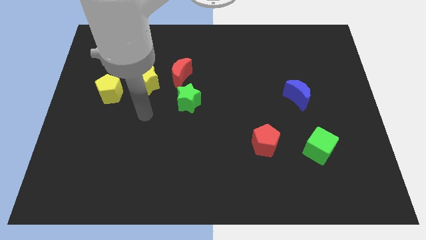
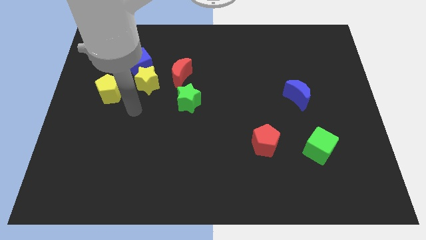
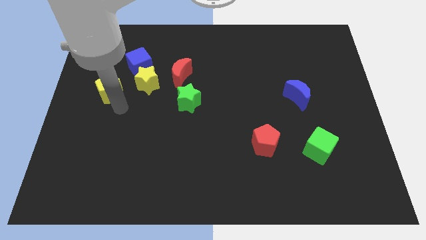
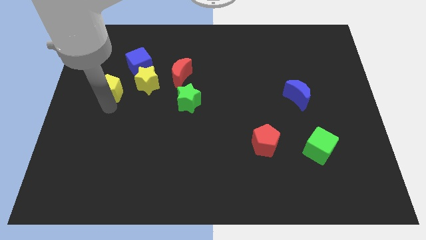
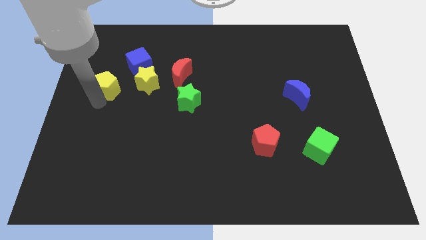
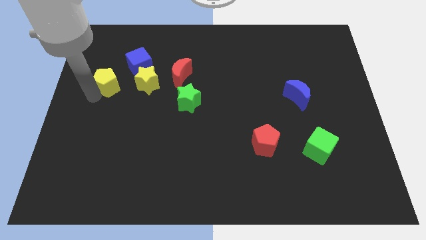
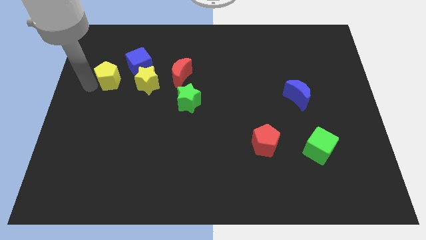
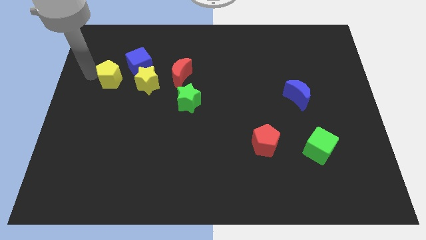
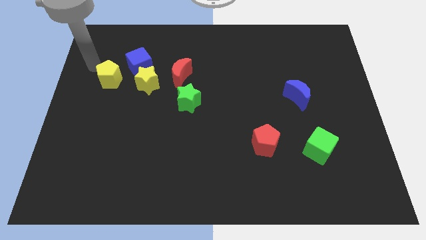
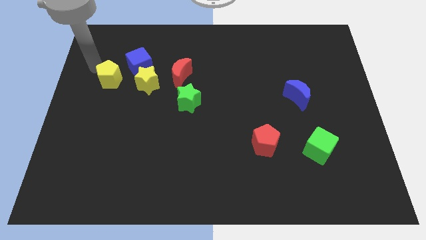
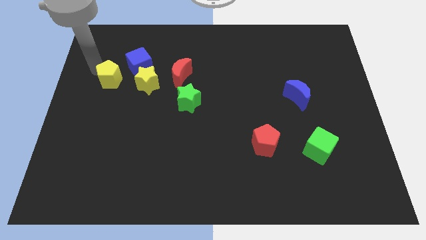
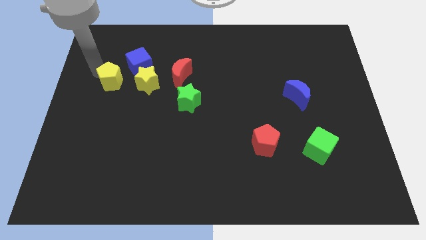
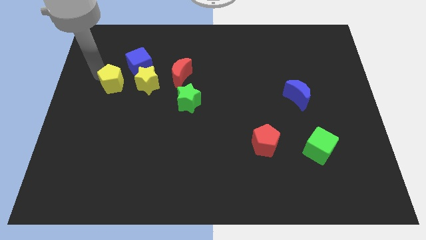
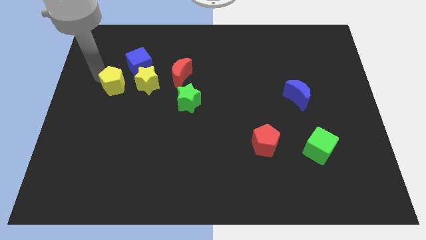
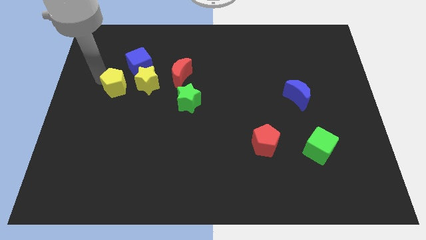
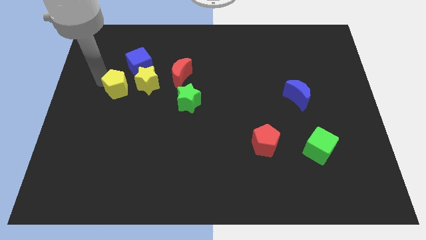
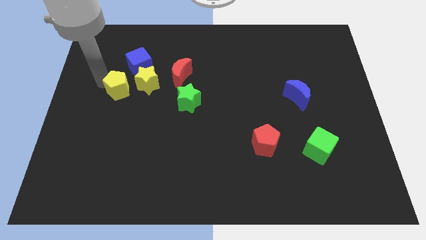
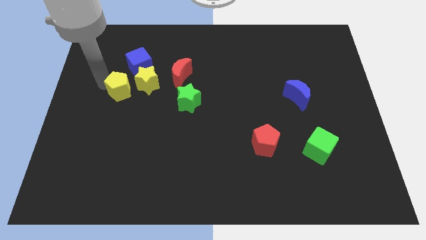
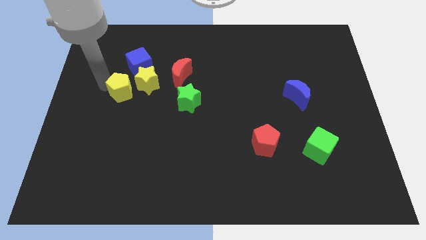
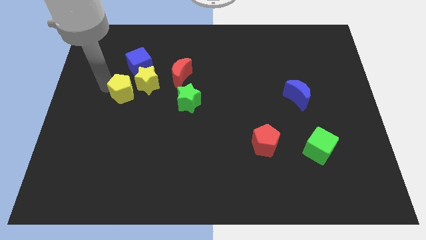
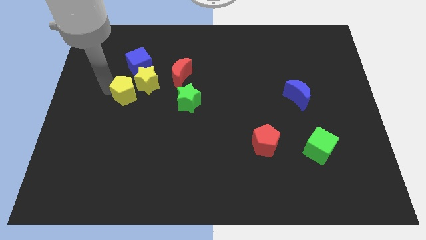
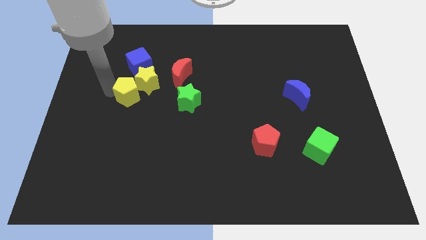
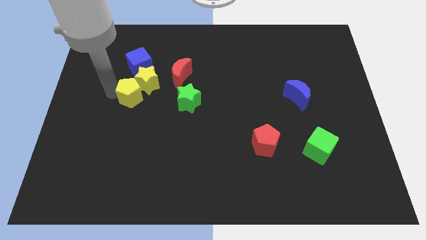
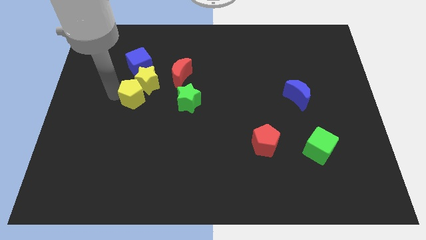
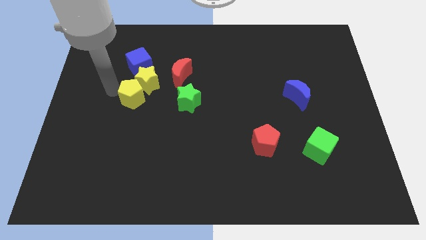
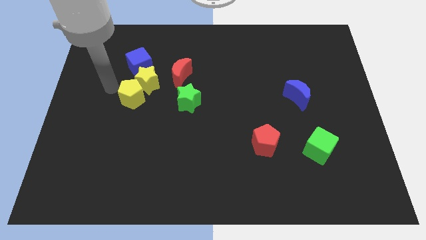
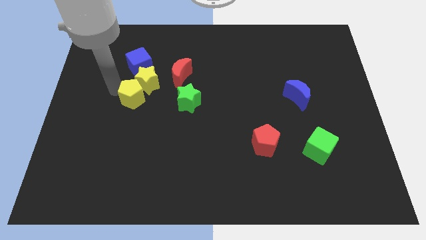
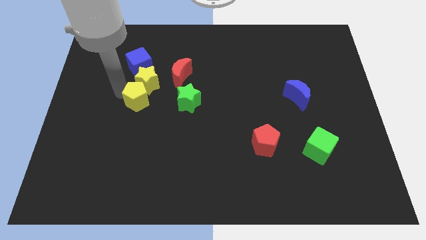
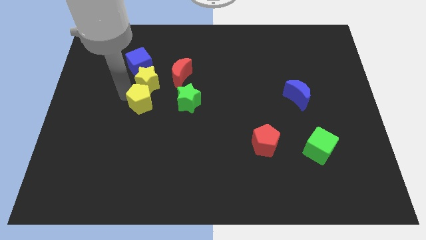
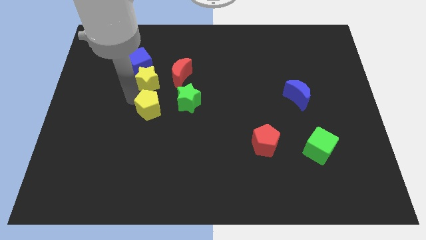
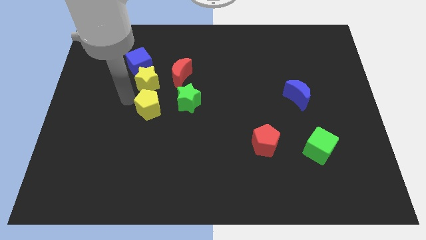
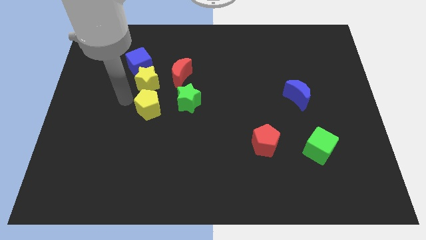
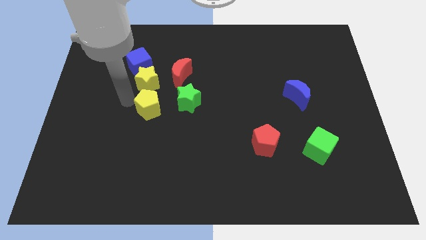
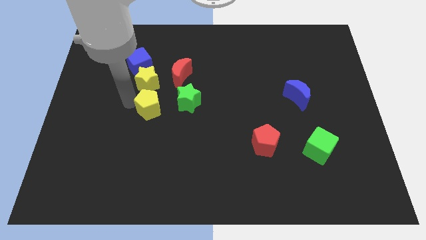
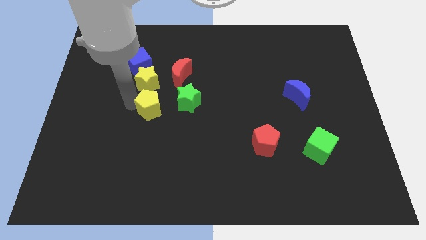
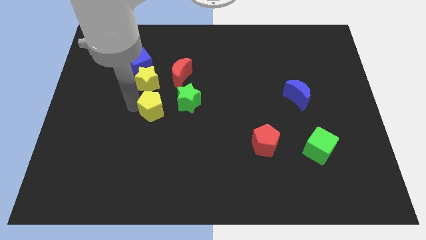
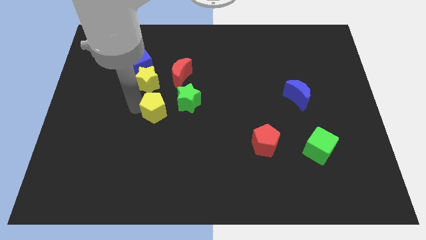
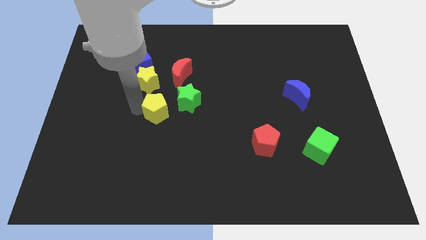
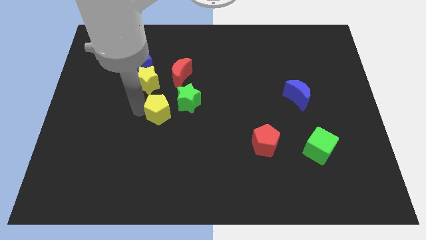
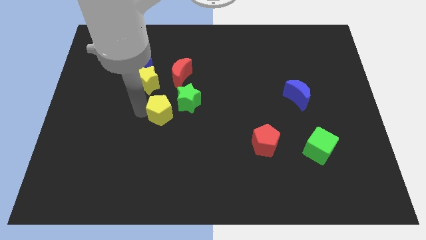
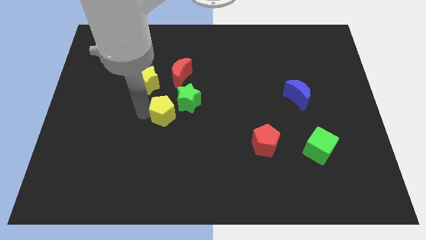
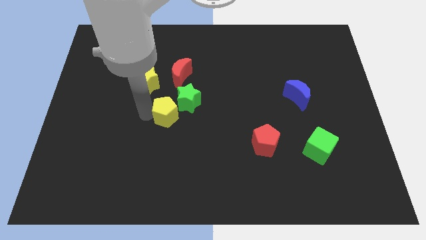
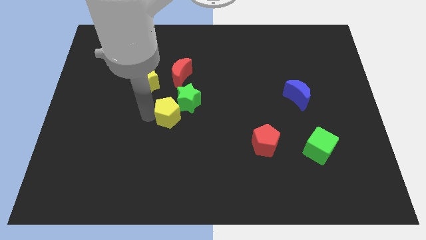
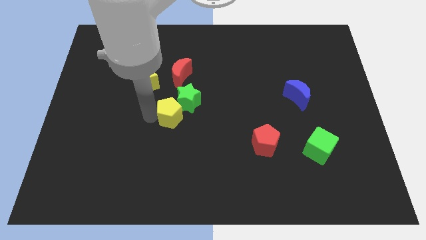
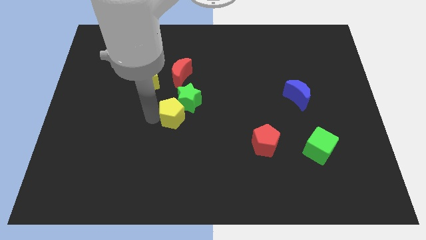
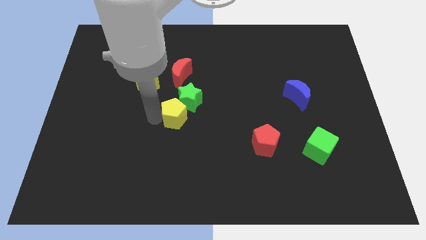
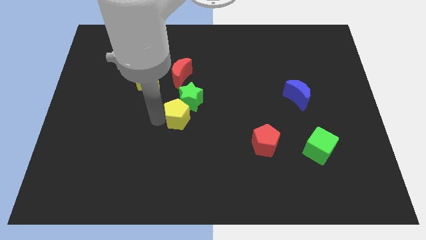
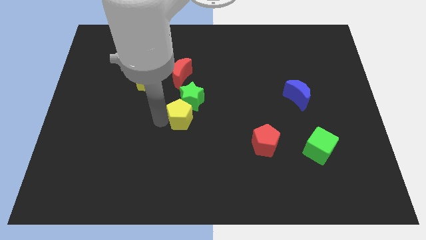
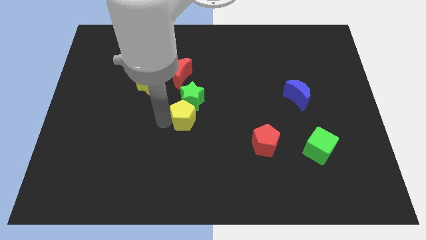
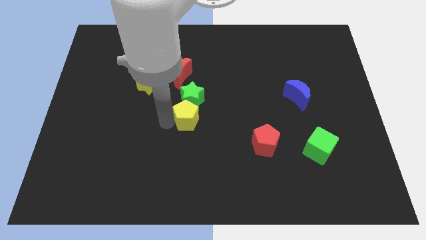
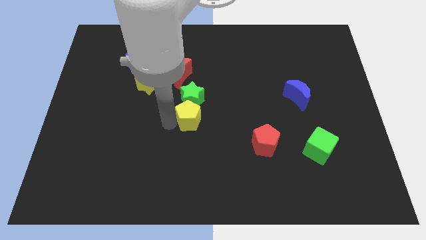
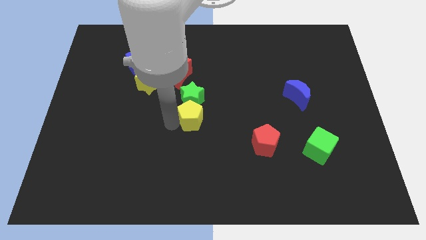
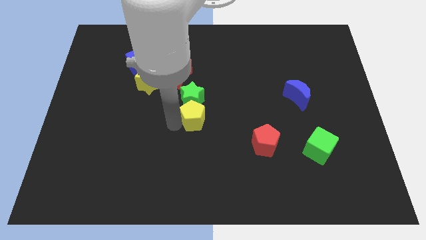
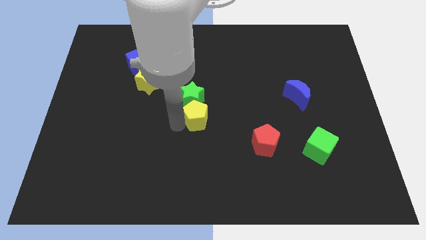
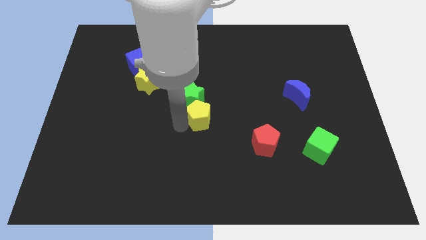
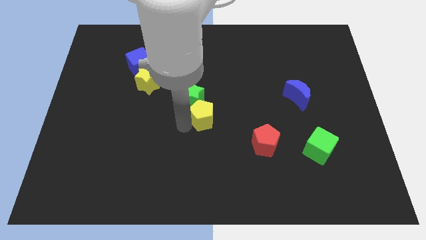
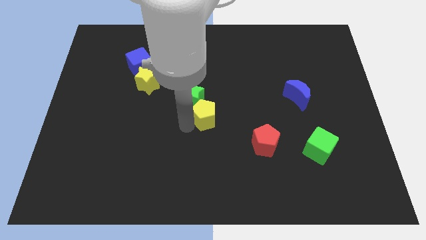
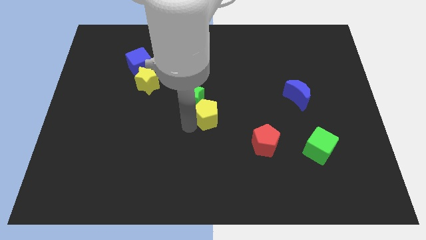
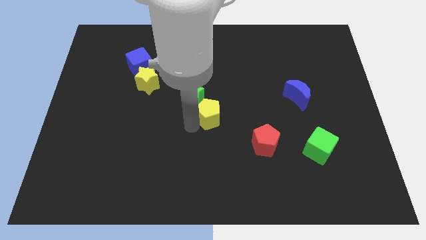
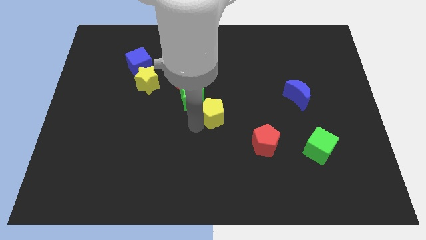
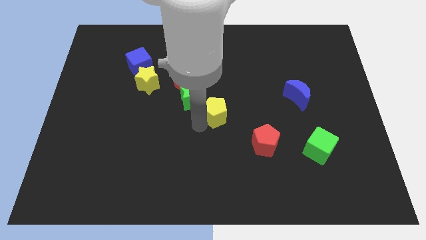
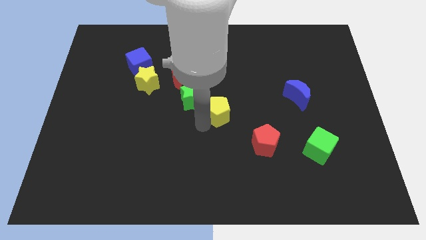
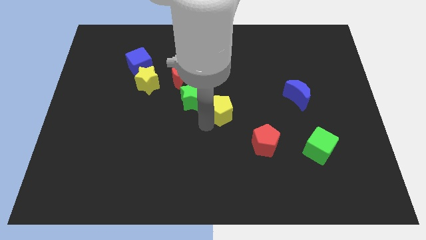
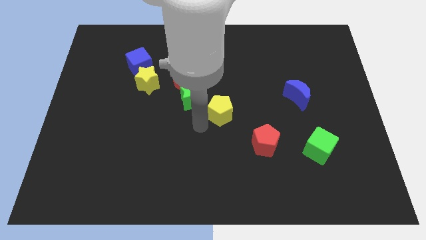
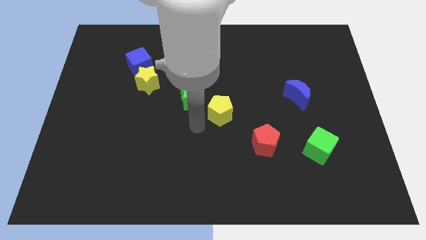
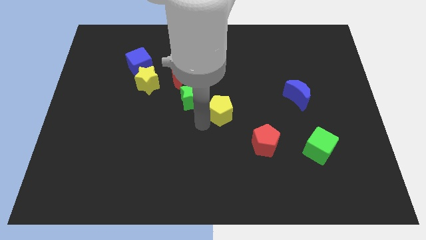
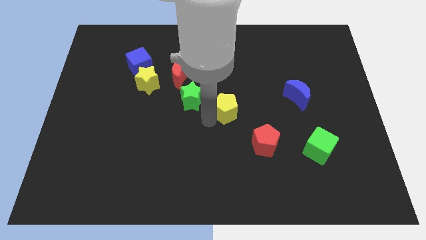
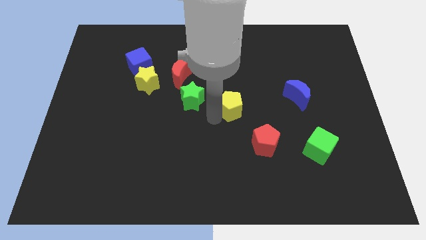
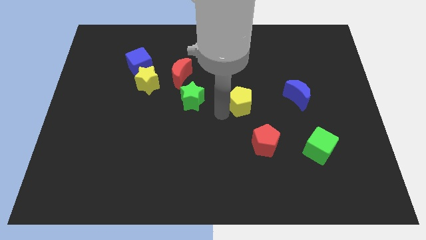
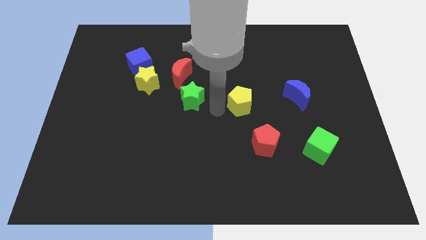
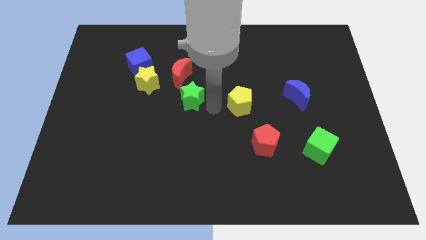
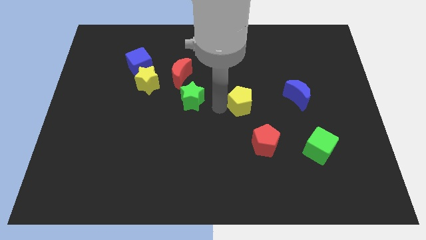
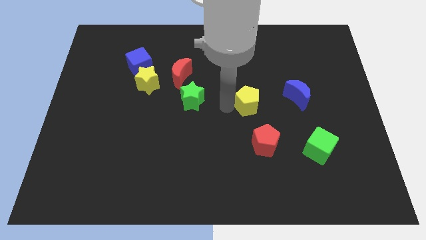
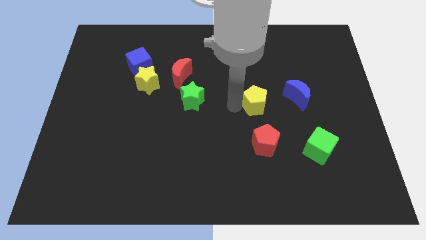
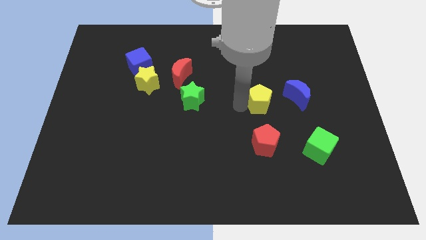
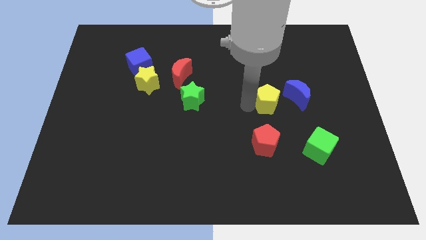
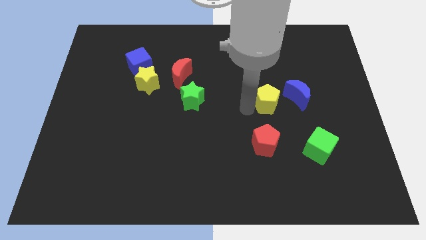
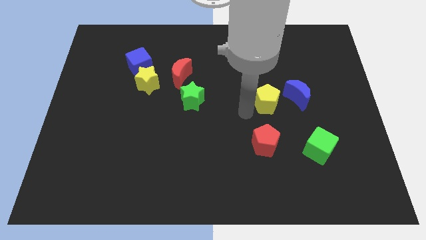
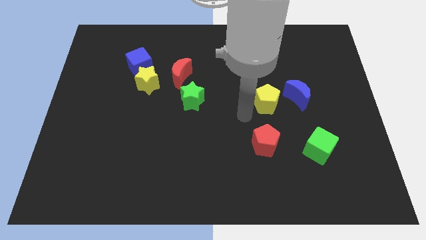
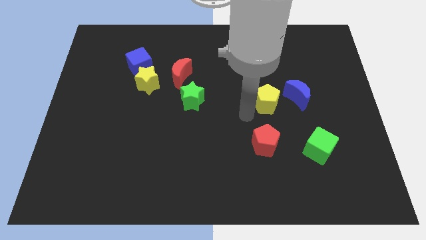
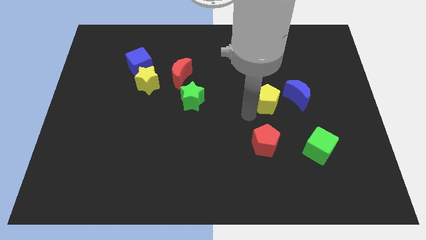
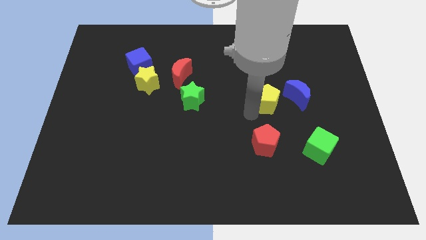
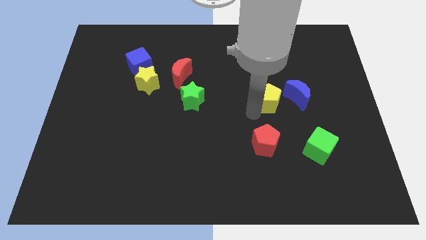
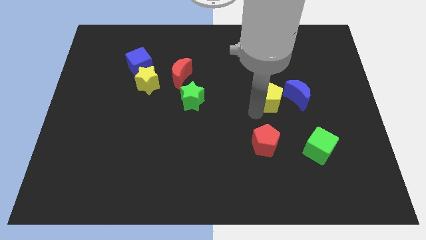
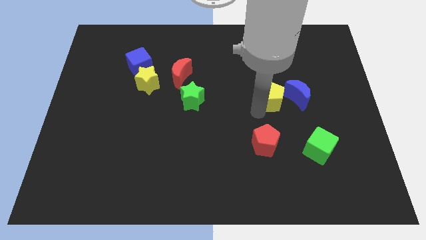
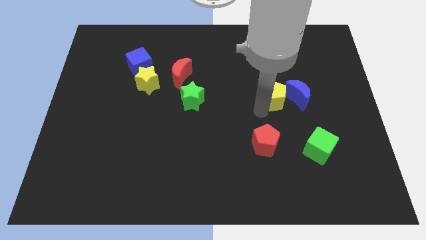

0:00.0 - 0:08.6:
move the yellow pentagon next to the blue moon
